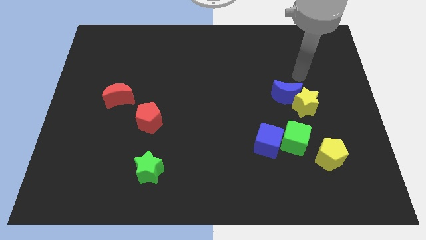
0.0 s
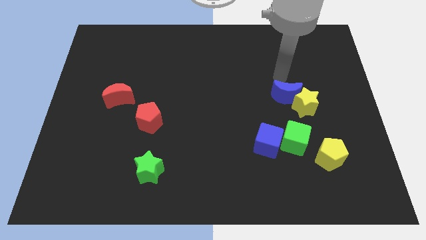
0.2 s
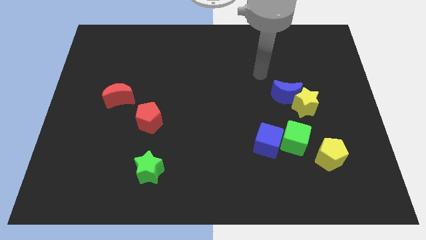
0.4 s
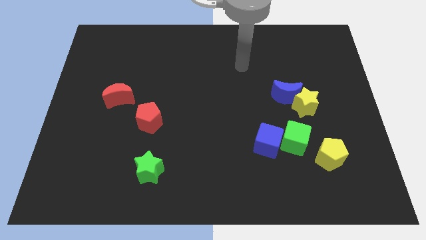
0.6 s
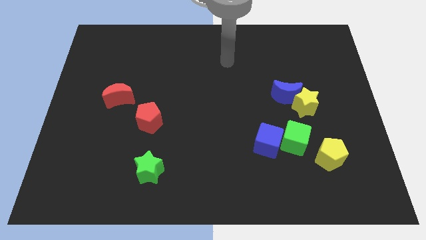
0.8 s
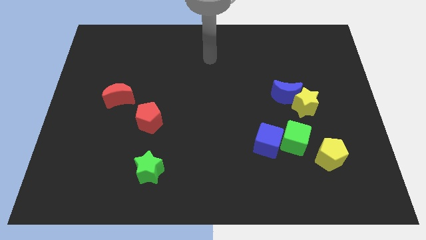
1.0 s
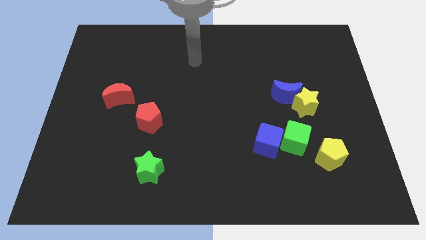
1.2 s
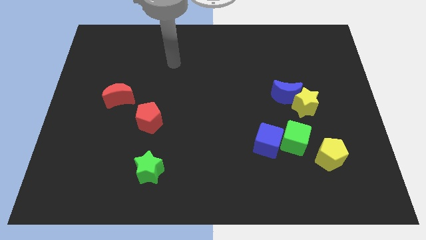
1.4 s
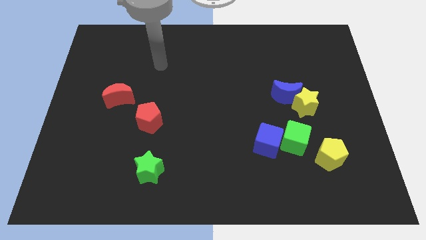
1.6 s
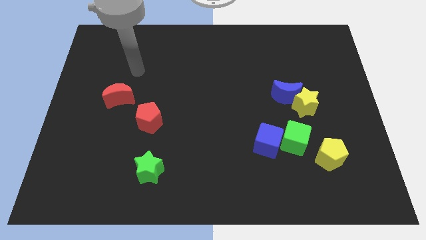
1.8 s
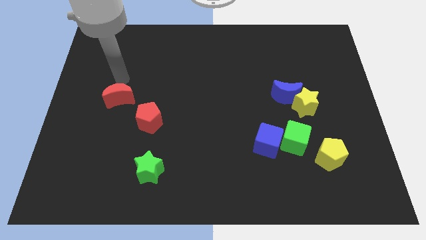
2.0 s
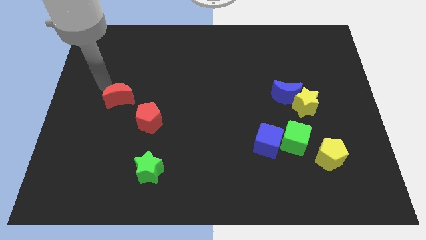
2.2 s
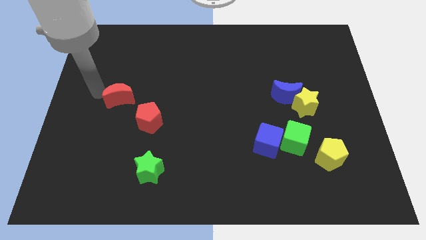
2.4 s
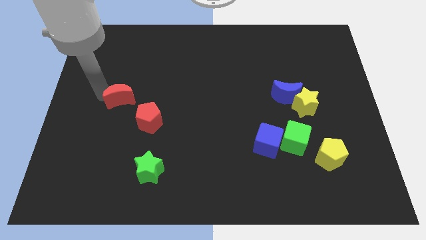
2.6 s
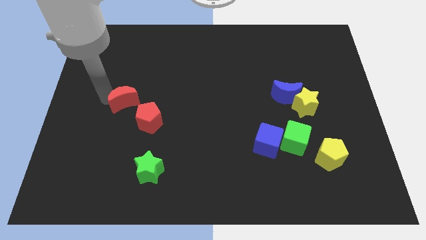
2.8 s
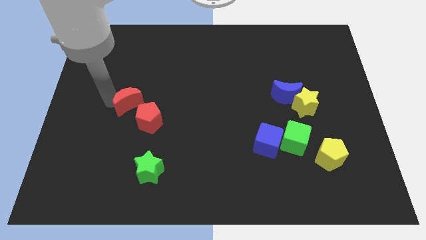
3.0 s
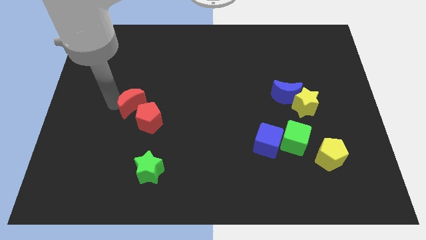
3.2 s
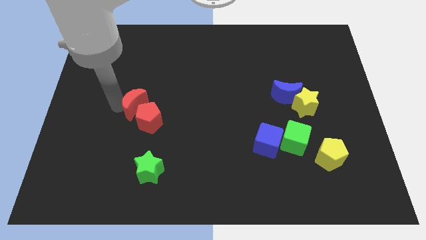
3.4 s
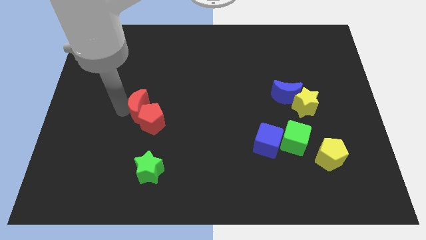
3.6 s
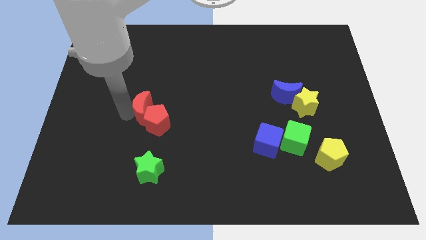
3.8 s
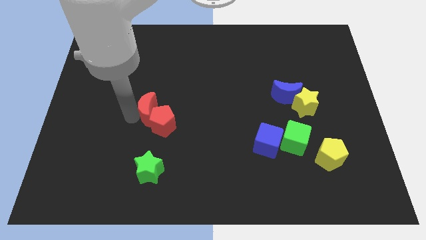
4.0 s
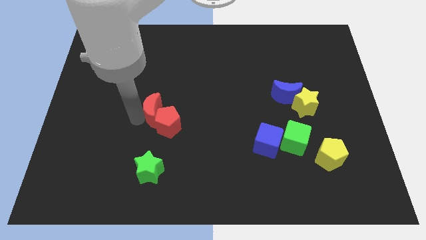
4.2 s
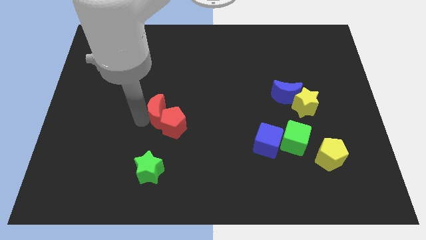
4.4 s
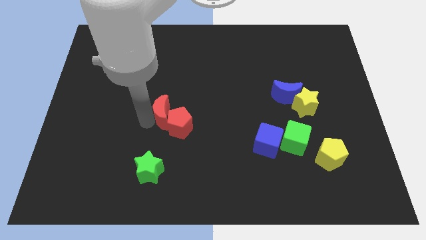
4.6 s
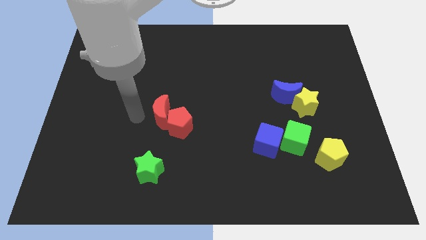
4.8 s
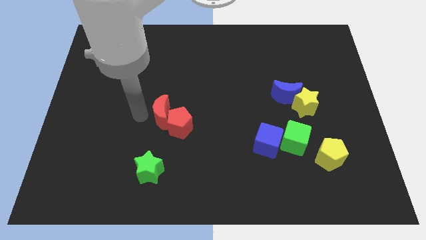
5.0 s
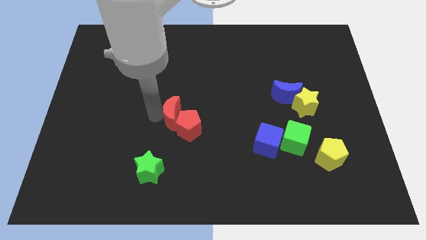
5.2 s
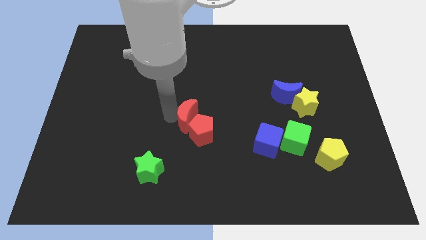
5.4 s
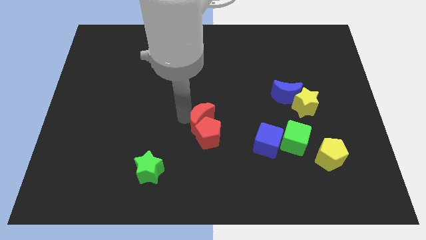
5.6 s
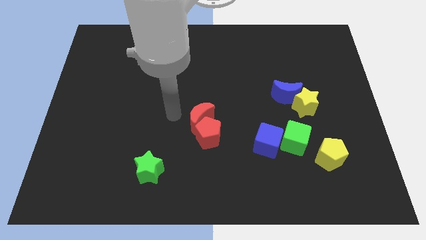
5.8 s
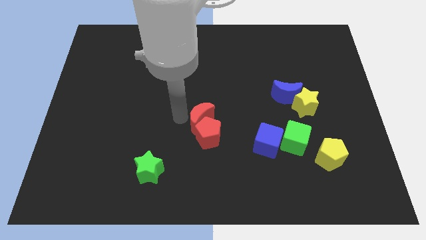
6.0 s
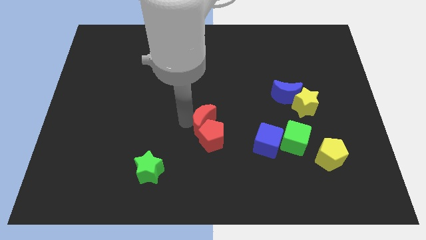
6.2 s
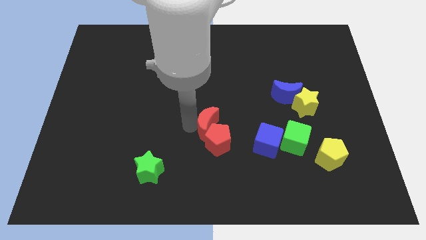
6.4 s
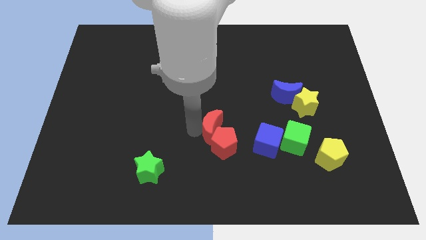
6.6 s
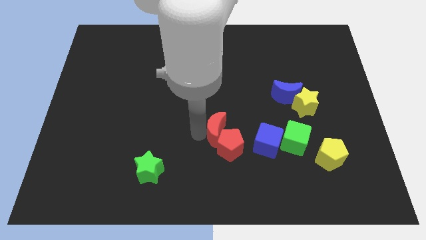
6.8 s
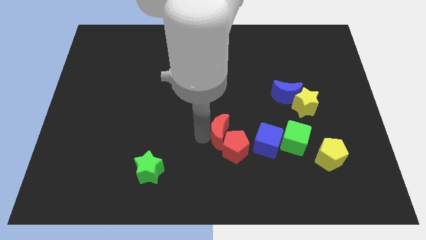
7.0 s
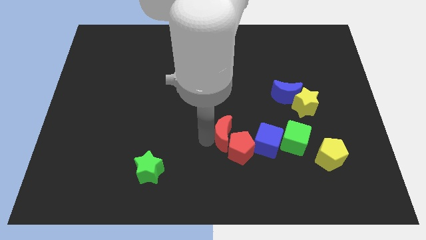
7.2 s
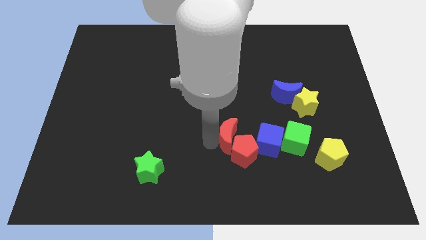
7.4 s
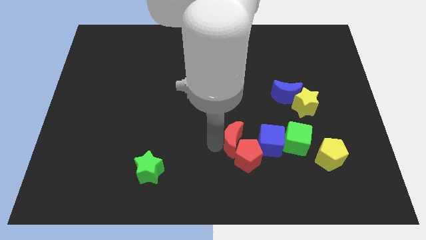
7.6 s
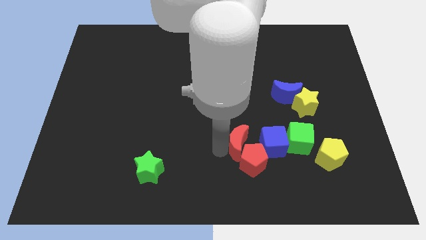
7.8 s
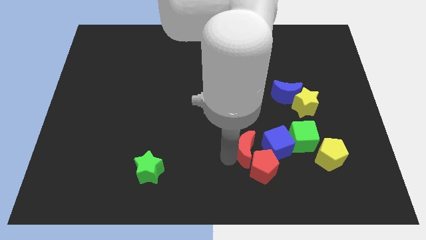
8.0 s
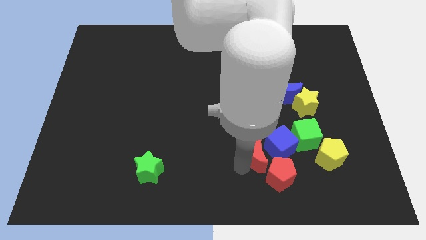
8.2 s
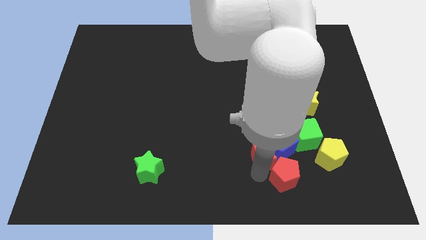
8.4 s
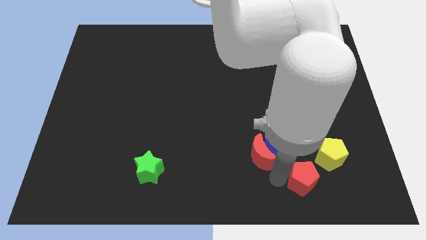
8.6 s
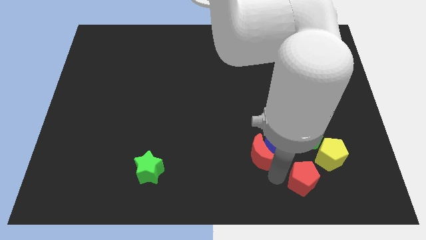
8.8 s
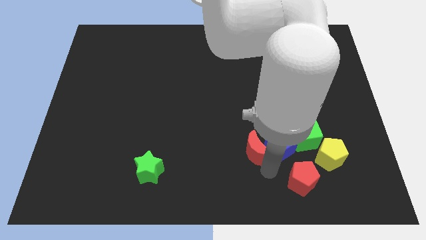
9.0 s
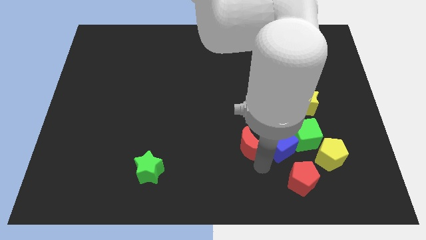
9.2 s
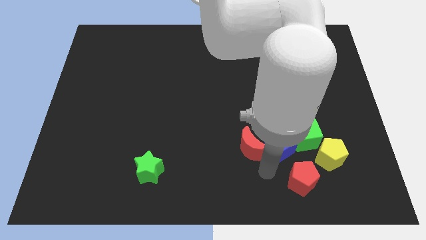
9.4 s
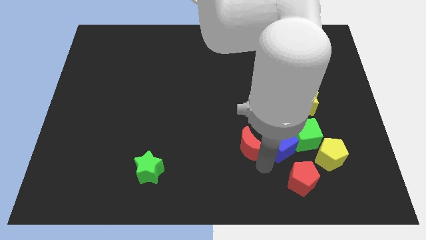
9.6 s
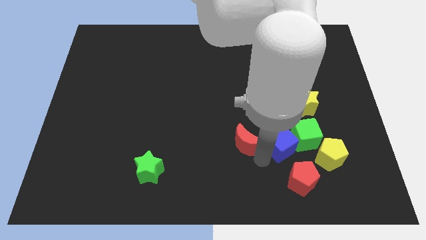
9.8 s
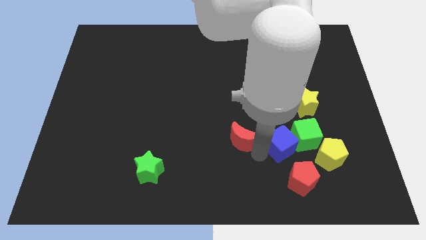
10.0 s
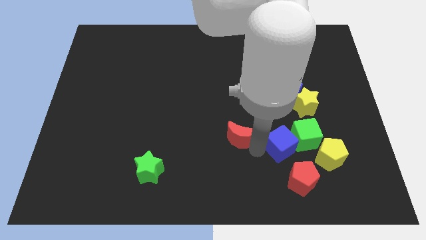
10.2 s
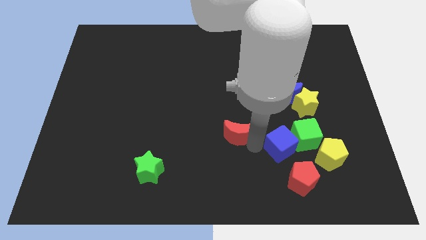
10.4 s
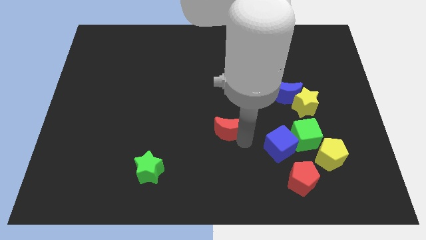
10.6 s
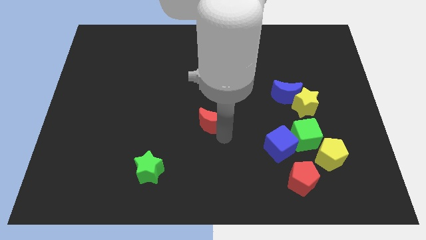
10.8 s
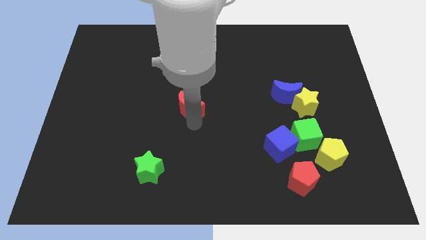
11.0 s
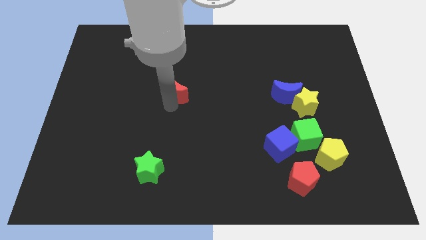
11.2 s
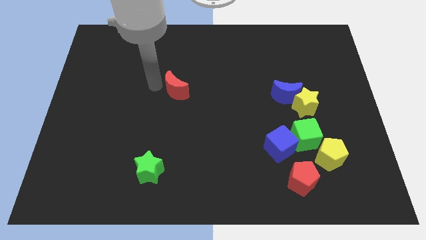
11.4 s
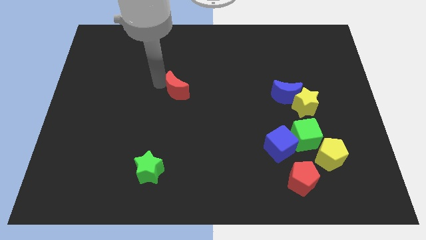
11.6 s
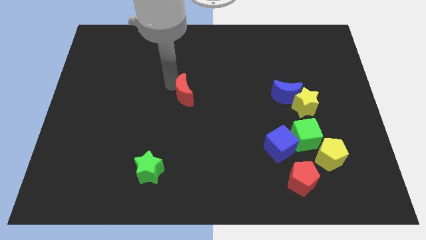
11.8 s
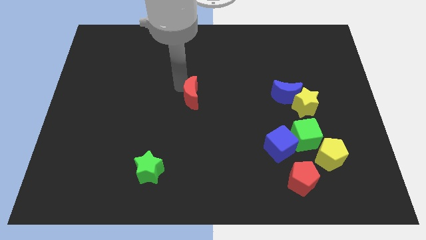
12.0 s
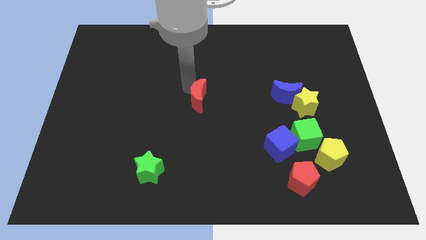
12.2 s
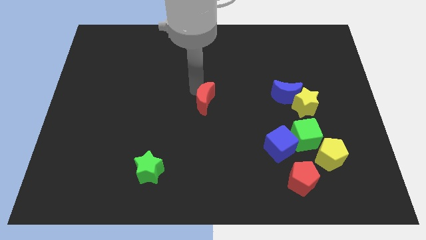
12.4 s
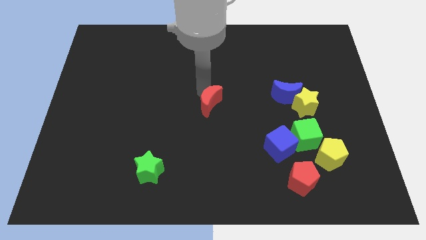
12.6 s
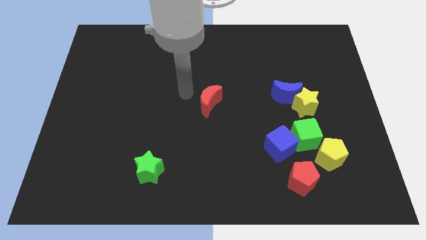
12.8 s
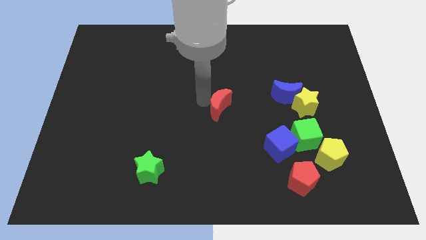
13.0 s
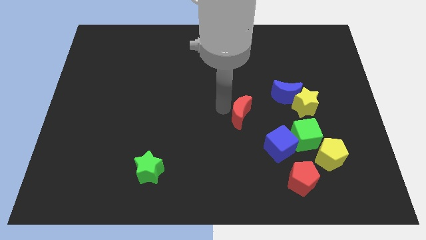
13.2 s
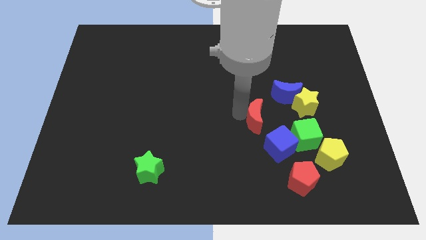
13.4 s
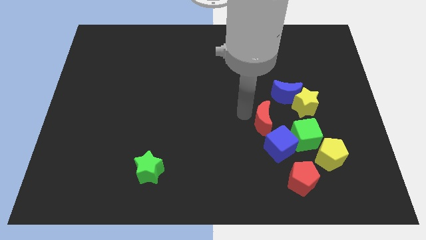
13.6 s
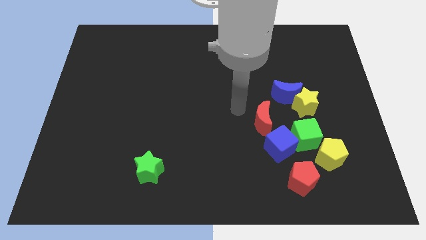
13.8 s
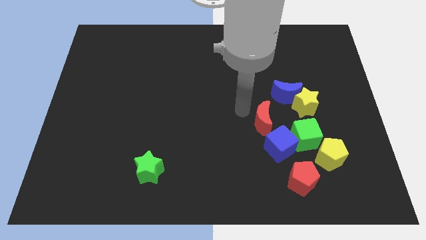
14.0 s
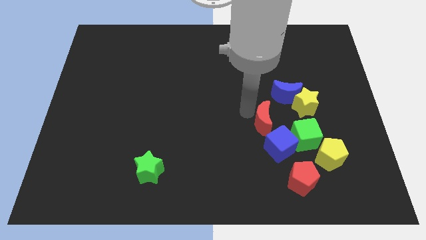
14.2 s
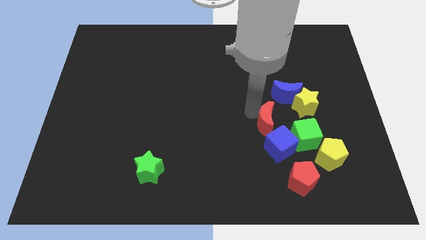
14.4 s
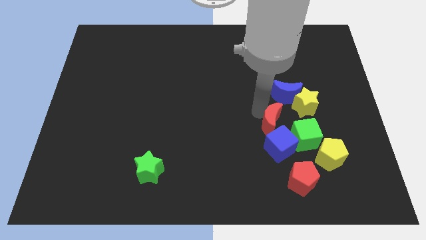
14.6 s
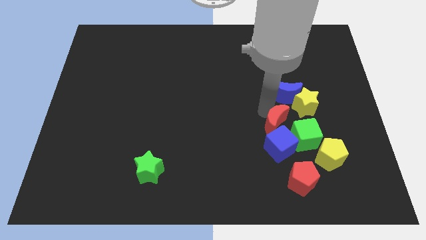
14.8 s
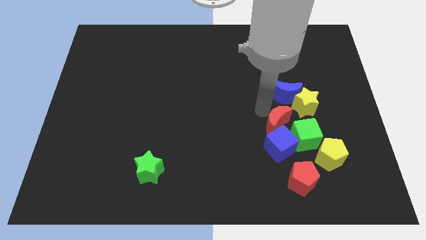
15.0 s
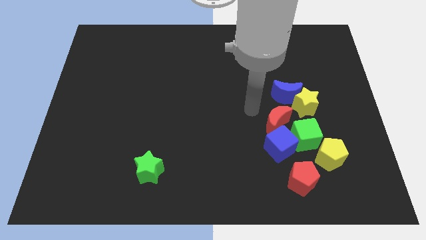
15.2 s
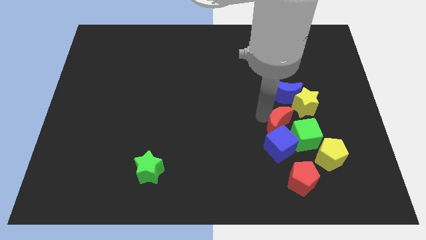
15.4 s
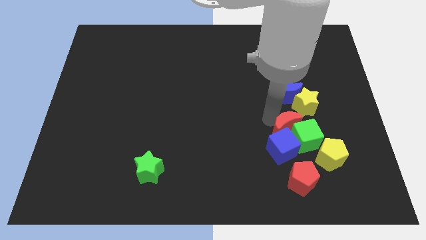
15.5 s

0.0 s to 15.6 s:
move the red moon towards the green cube
